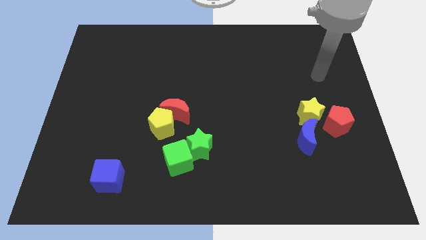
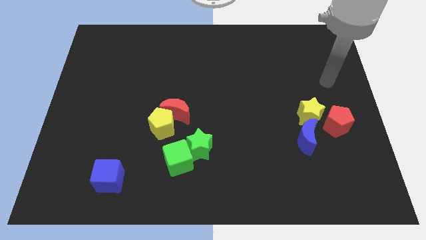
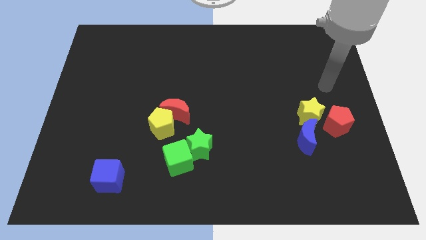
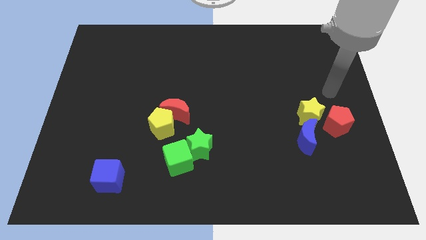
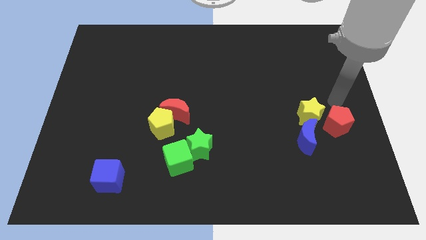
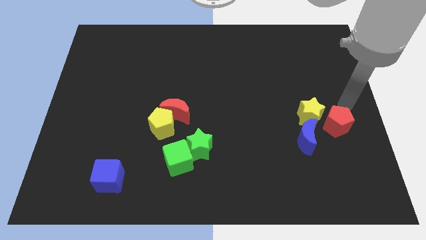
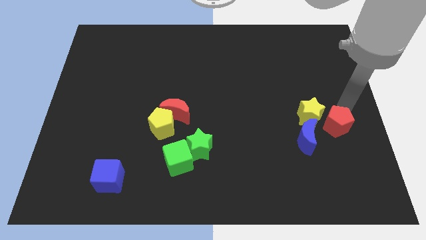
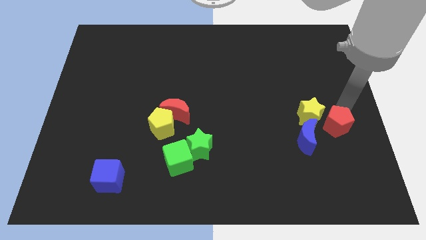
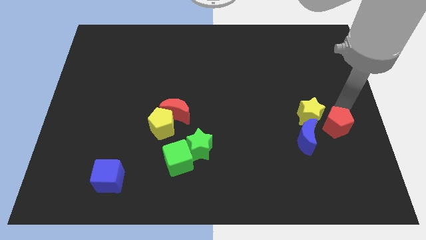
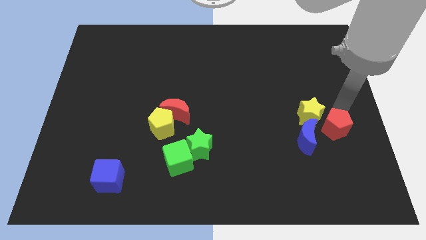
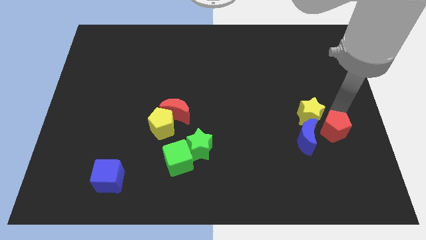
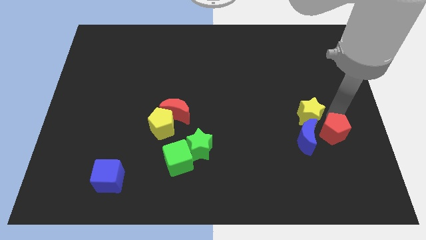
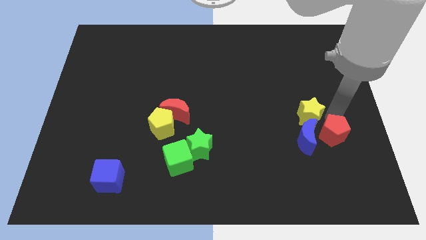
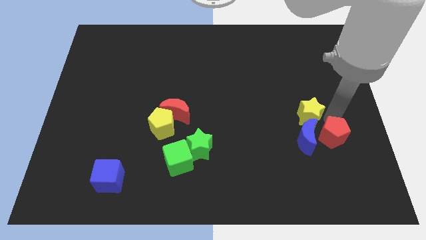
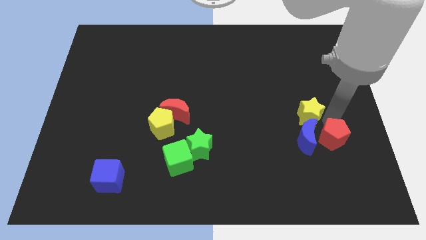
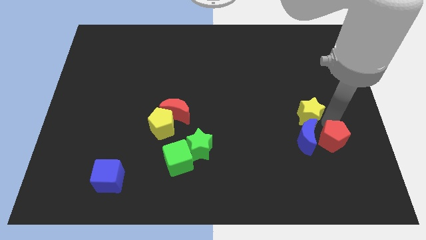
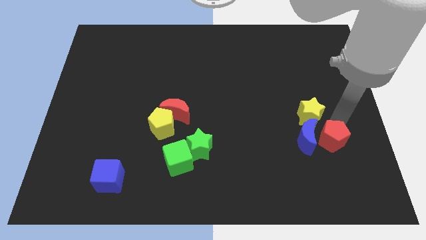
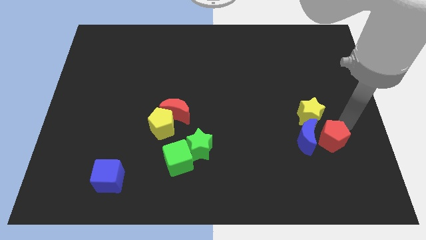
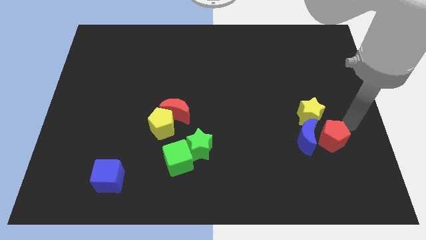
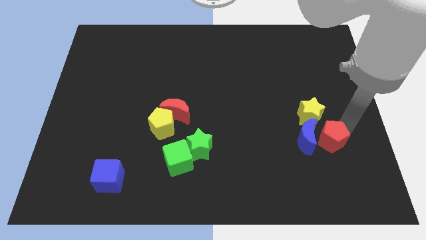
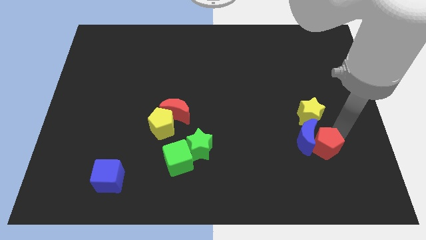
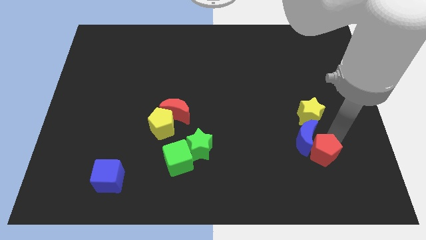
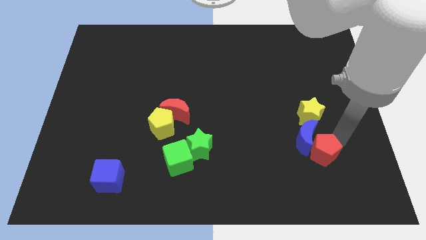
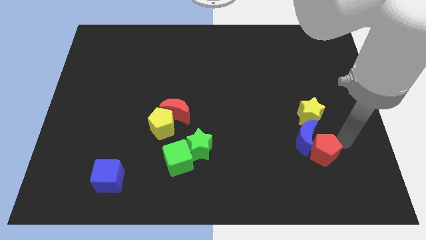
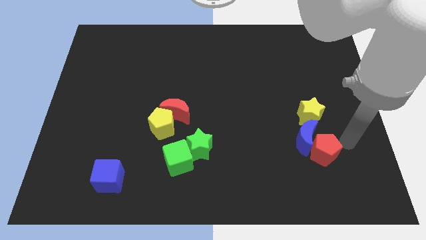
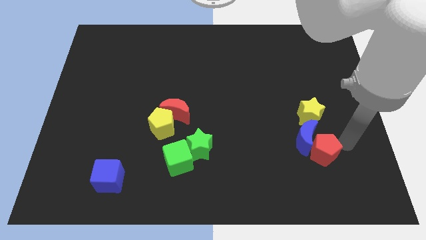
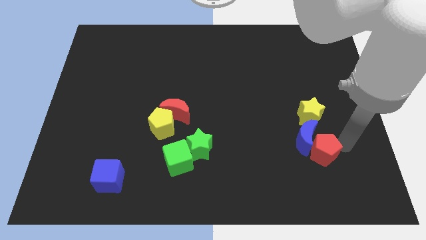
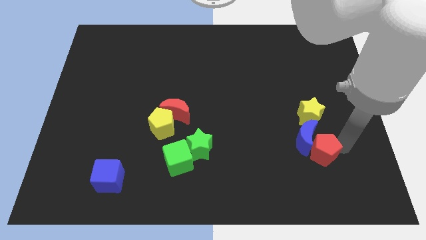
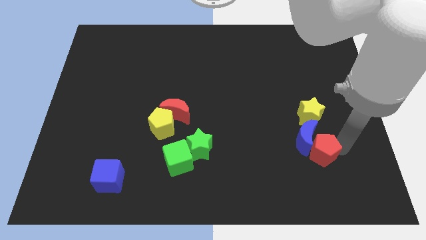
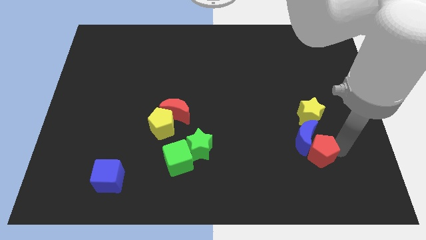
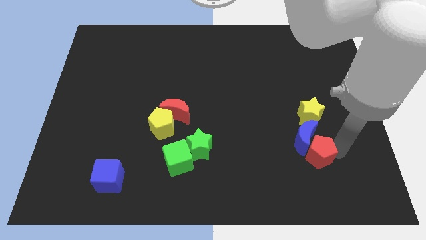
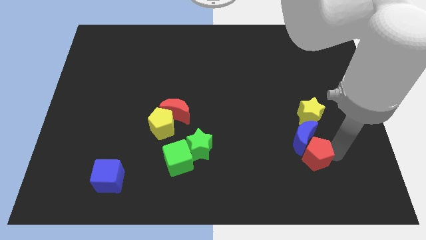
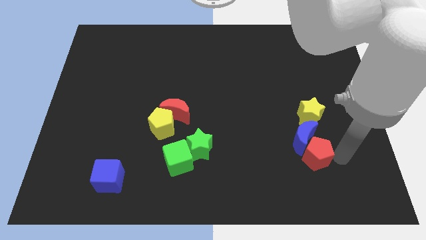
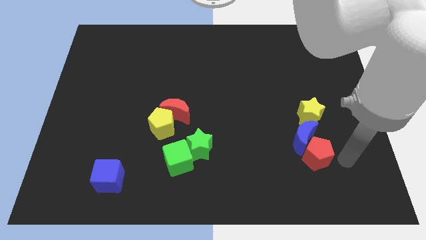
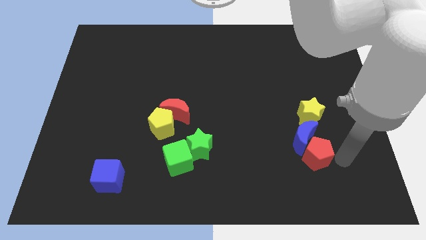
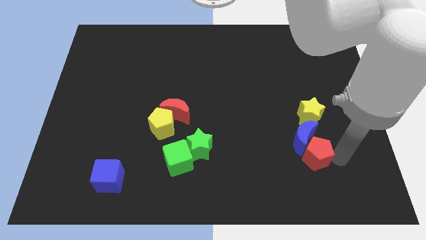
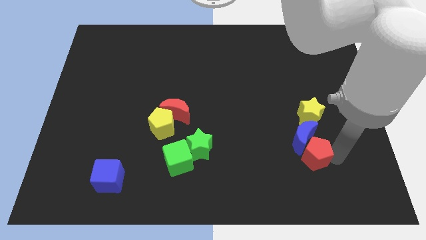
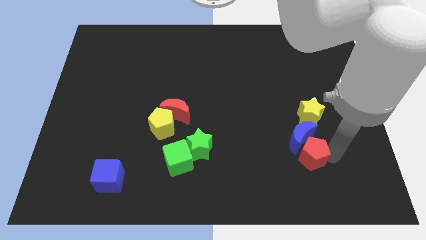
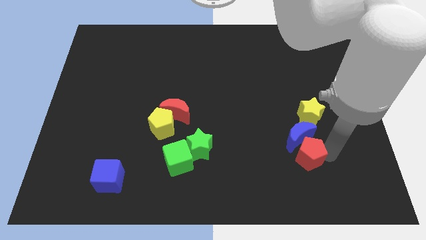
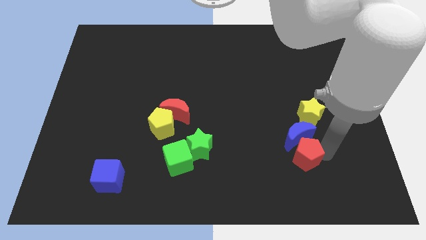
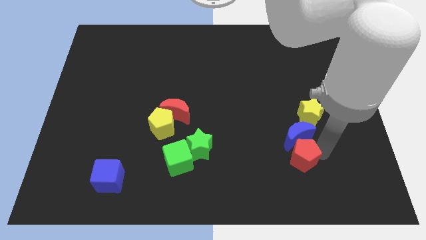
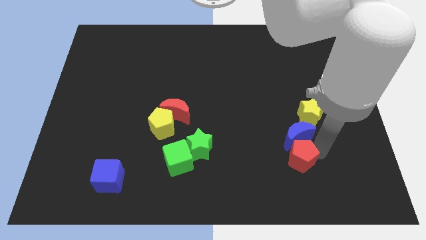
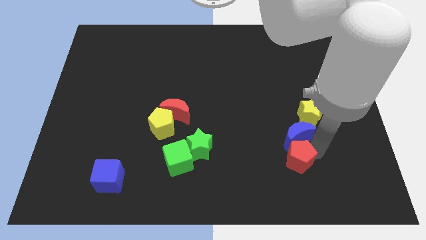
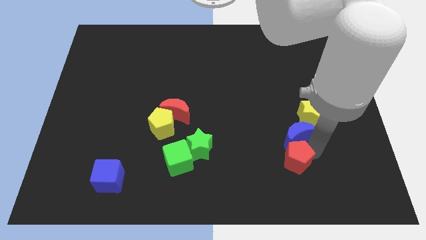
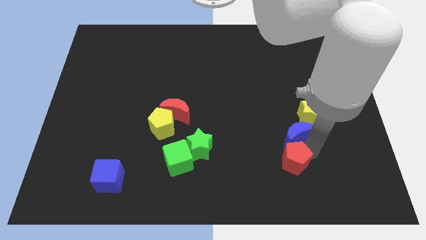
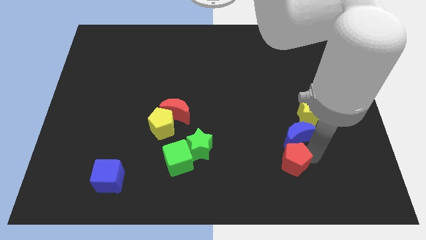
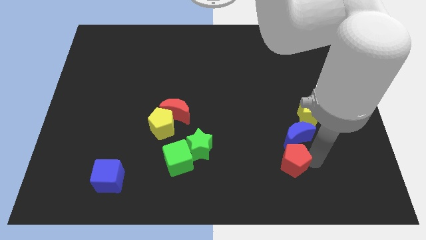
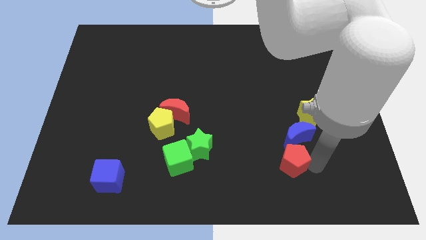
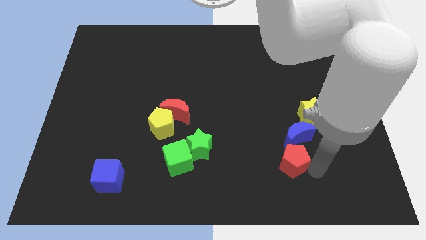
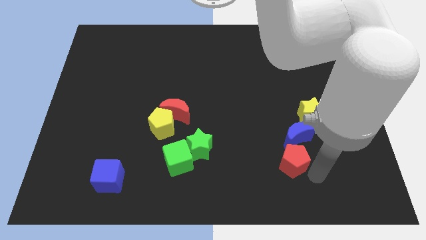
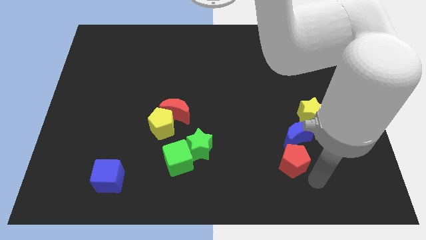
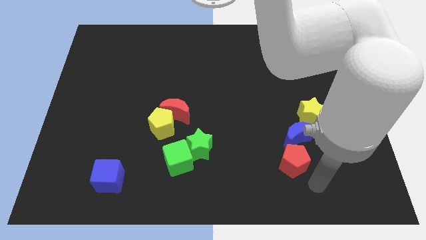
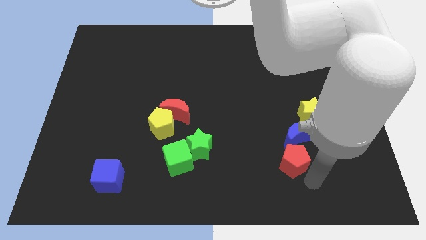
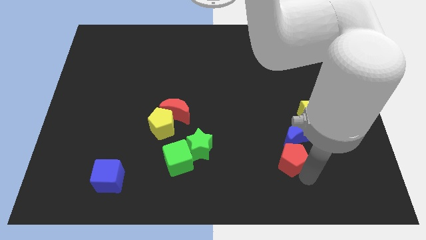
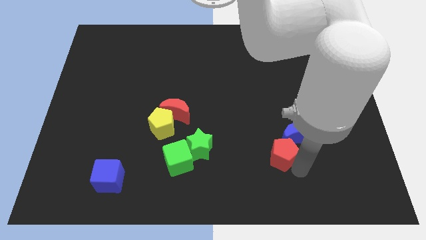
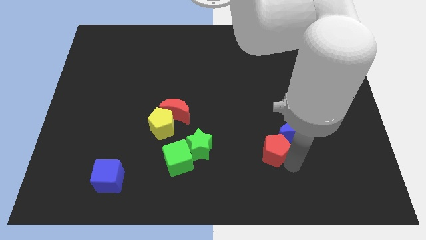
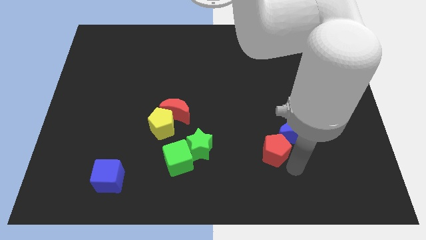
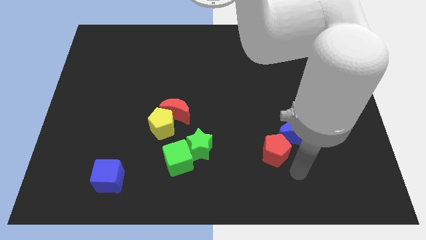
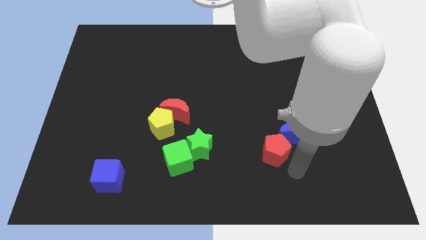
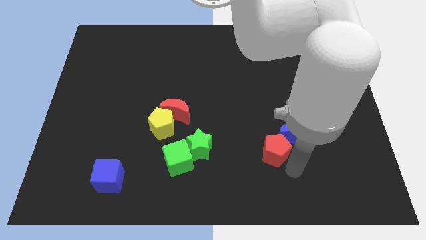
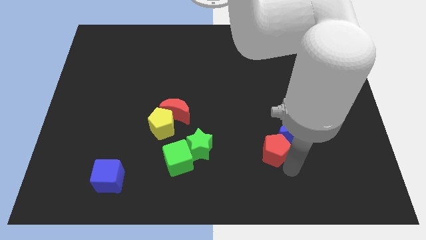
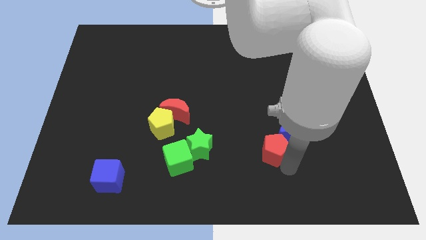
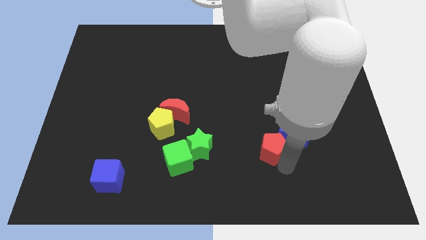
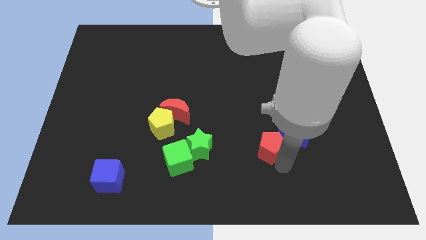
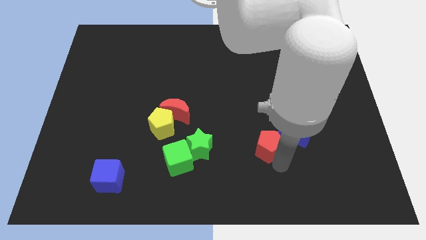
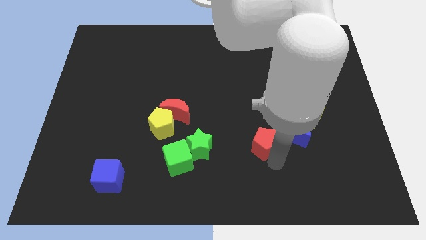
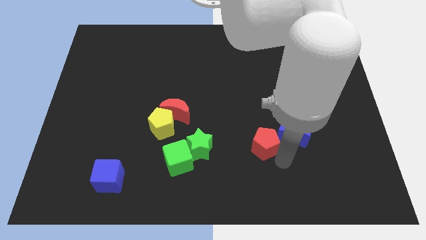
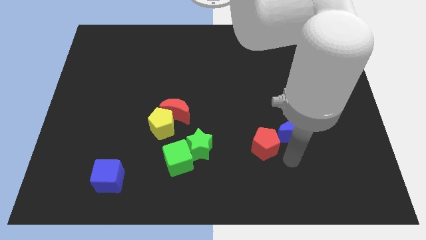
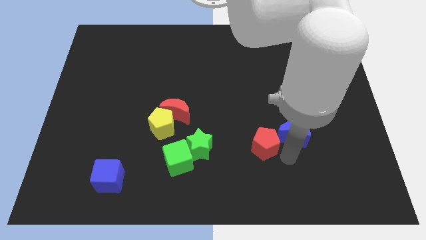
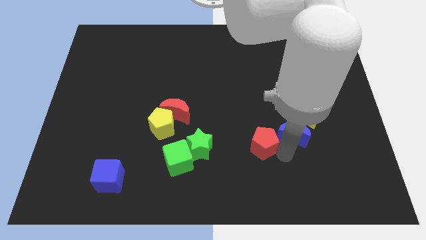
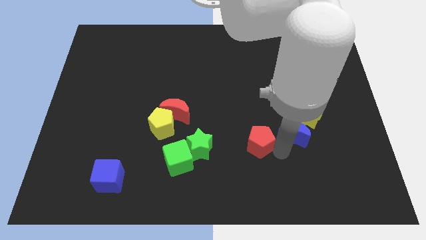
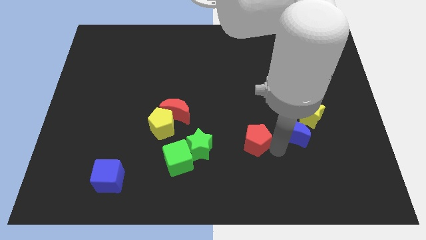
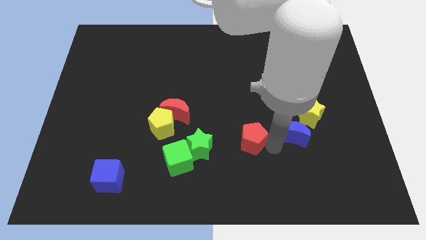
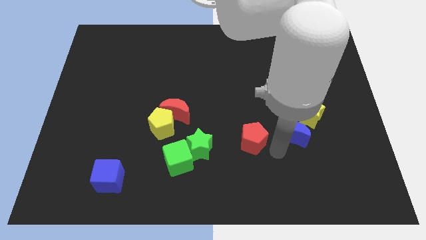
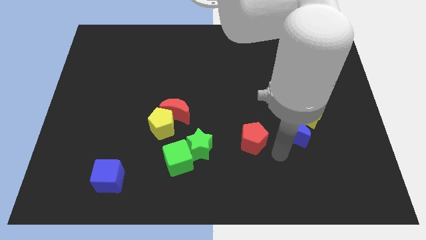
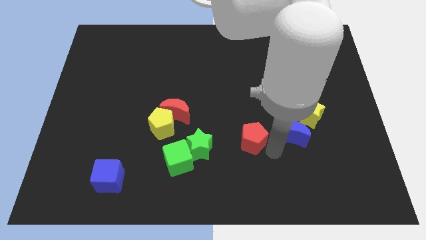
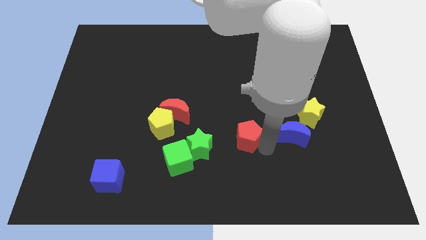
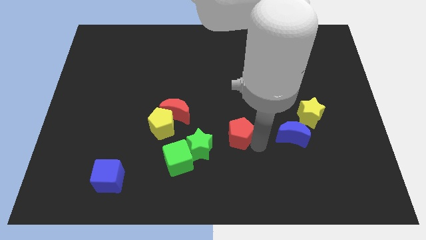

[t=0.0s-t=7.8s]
slide the red pentagon to the top right side of the green star
